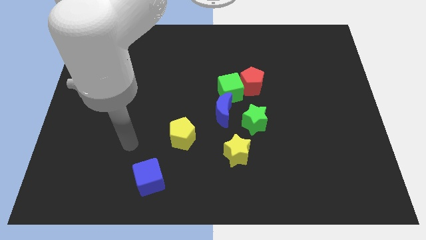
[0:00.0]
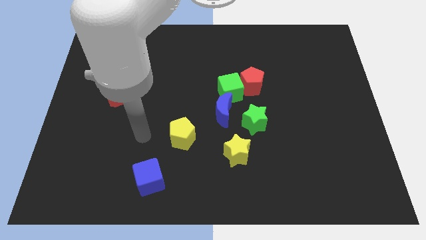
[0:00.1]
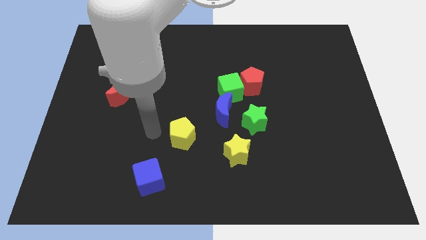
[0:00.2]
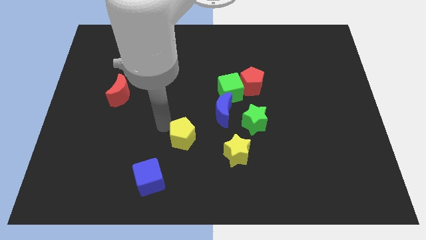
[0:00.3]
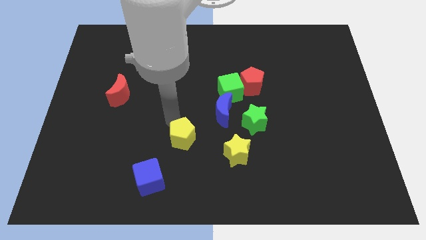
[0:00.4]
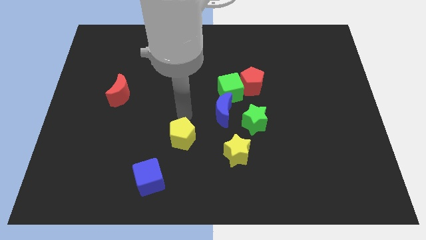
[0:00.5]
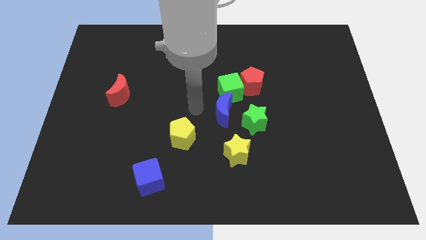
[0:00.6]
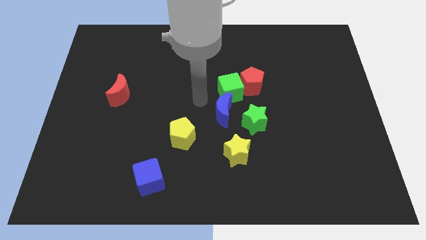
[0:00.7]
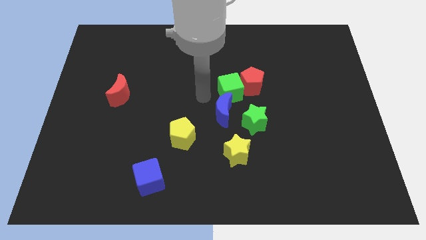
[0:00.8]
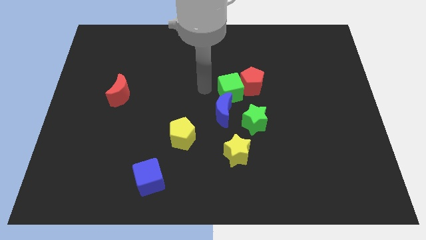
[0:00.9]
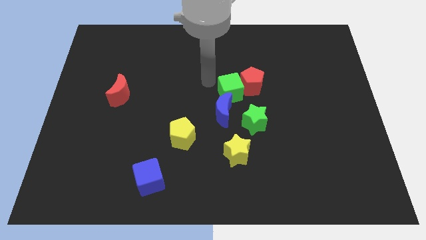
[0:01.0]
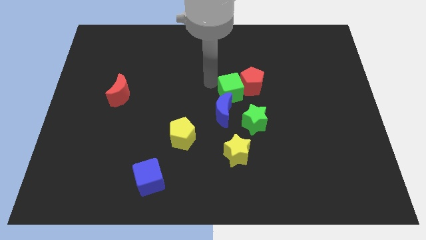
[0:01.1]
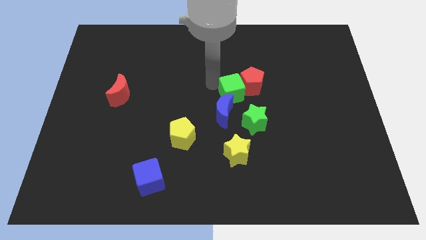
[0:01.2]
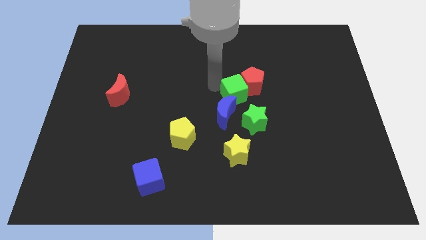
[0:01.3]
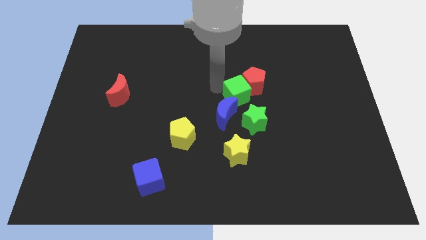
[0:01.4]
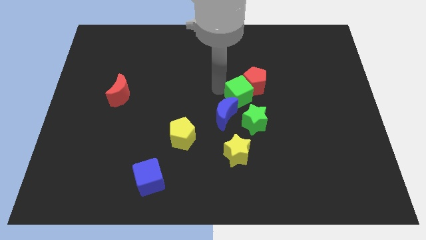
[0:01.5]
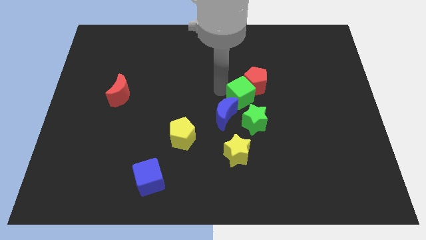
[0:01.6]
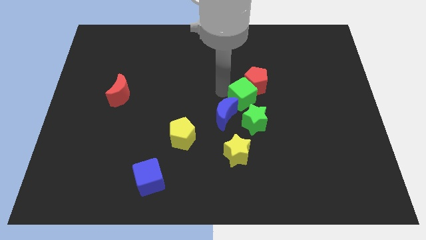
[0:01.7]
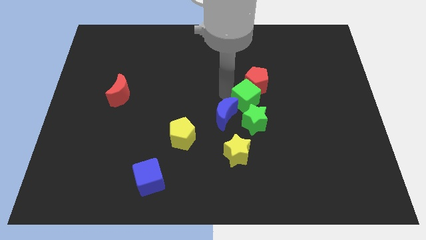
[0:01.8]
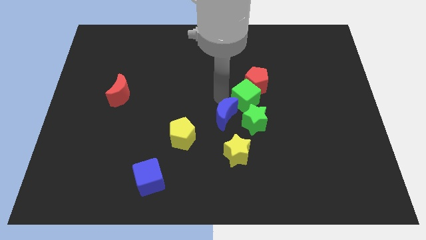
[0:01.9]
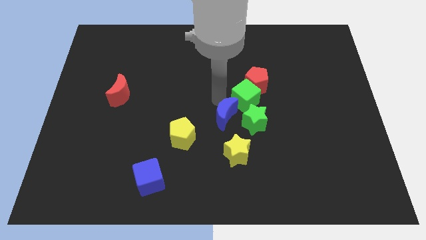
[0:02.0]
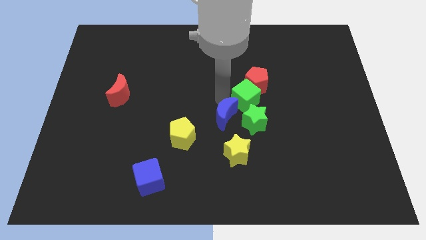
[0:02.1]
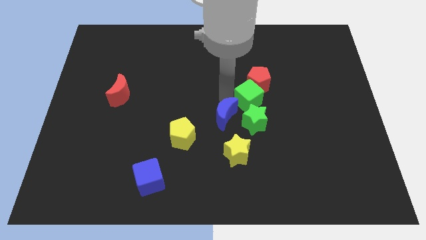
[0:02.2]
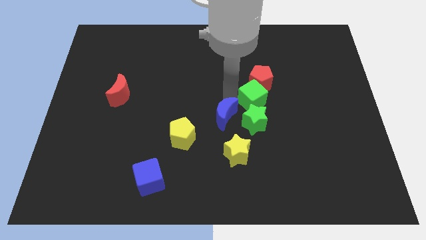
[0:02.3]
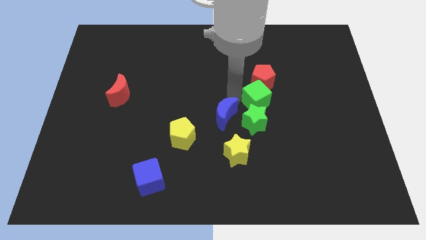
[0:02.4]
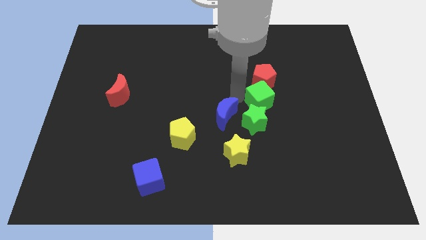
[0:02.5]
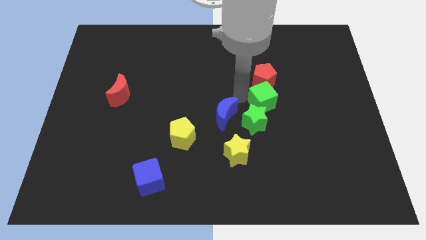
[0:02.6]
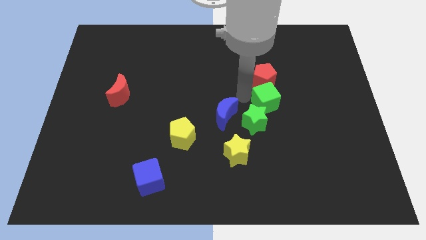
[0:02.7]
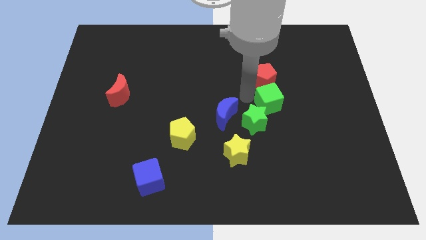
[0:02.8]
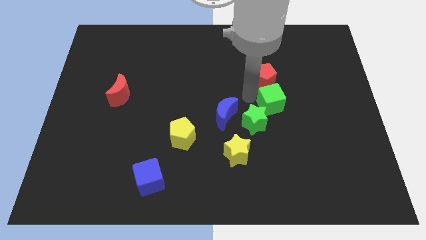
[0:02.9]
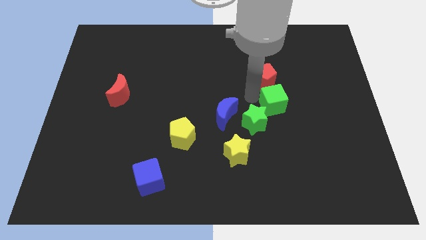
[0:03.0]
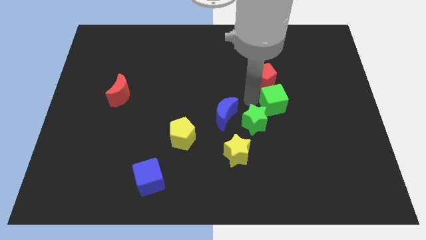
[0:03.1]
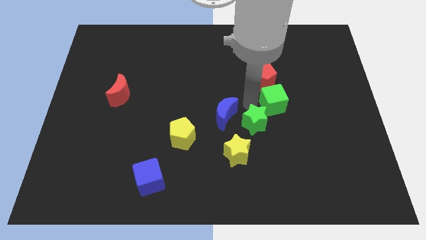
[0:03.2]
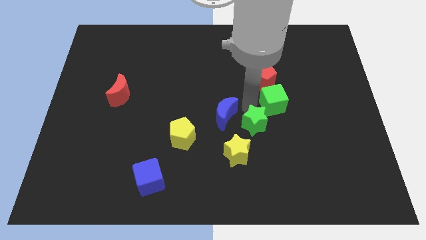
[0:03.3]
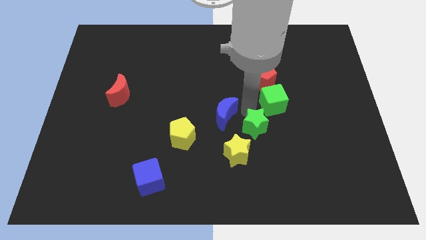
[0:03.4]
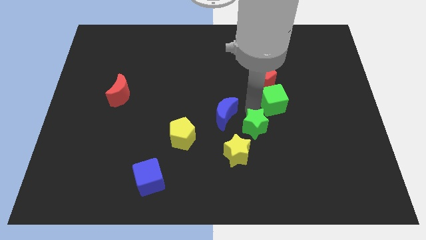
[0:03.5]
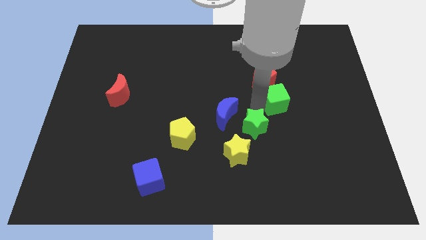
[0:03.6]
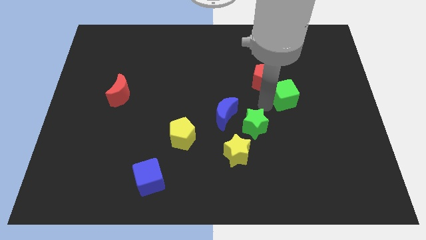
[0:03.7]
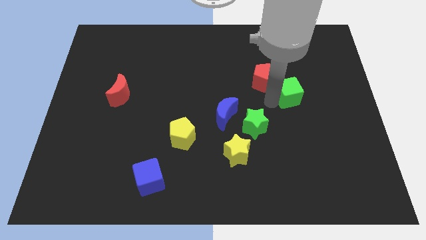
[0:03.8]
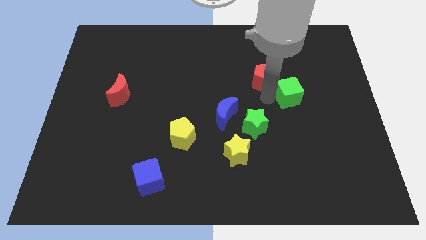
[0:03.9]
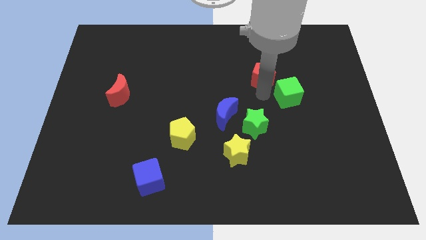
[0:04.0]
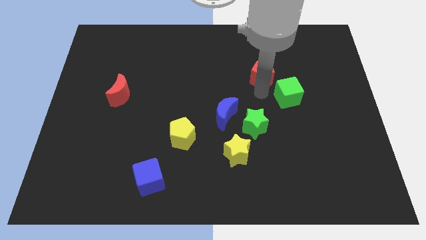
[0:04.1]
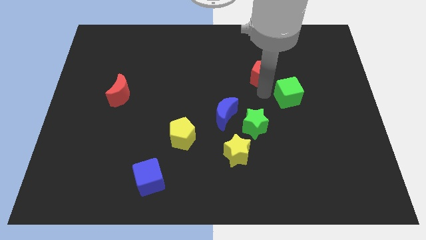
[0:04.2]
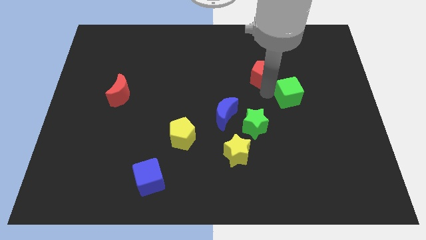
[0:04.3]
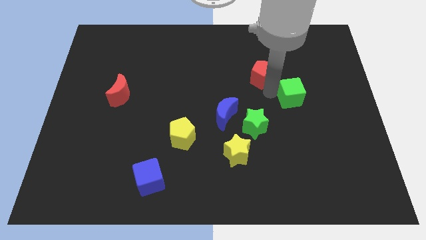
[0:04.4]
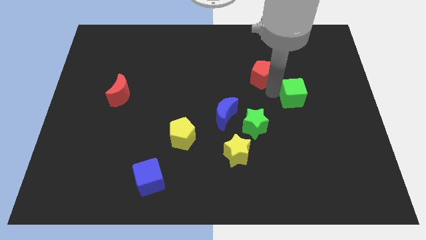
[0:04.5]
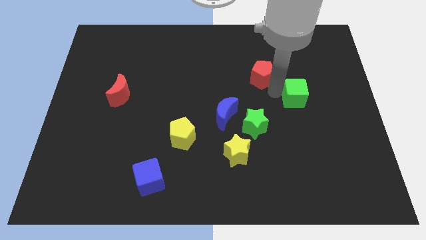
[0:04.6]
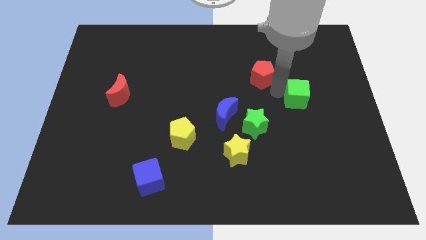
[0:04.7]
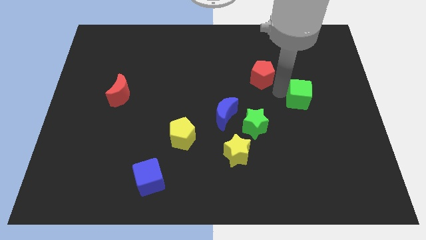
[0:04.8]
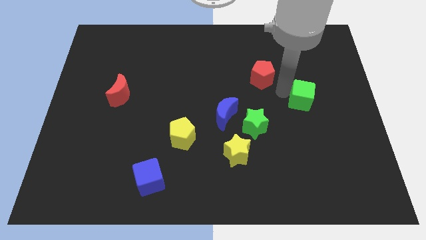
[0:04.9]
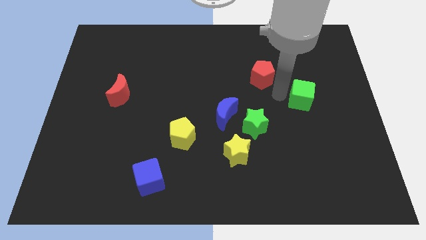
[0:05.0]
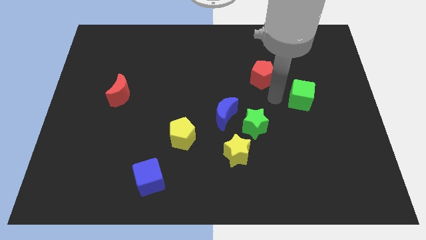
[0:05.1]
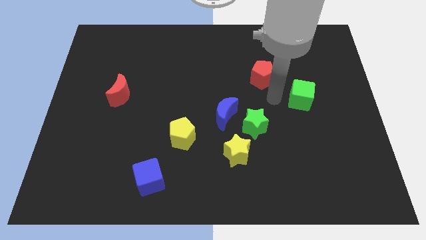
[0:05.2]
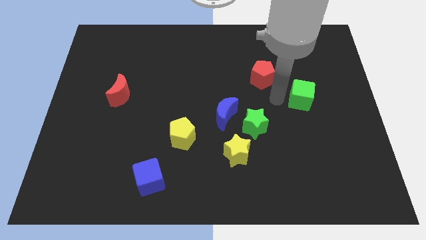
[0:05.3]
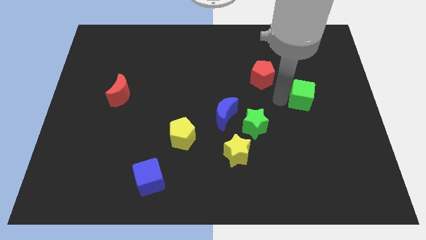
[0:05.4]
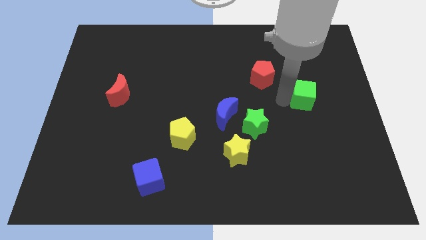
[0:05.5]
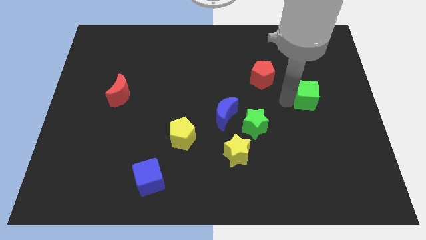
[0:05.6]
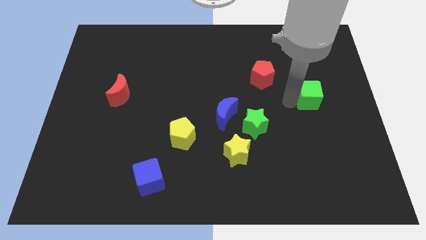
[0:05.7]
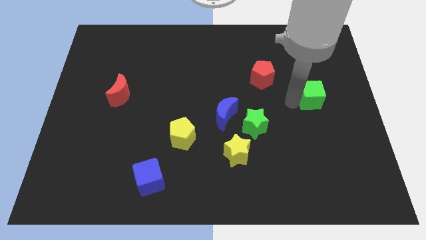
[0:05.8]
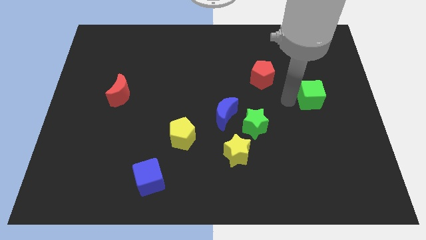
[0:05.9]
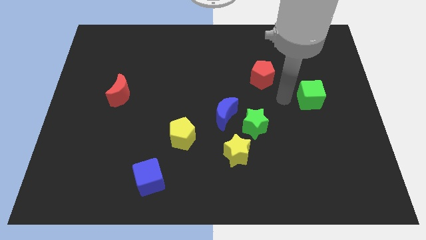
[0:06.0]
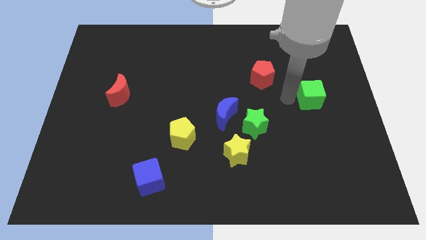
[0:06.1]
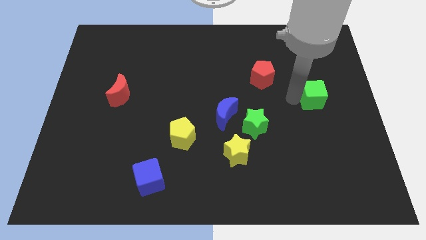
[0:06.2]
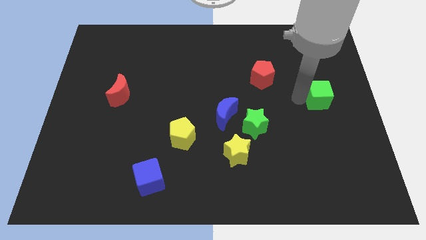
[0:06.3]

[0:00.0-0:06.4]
slide the green cube to the right side of the board

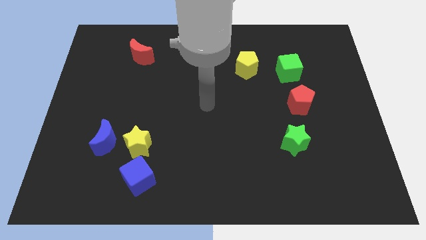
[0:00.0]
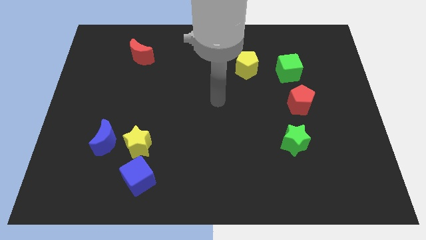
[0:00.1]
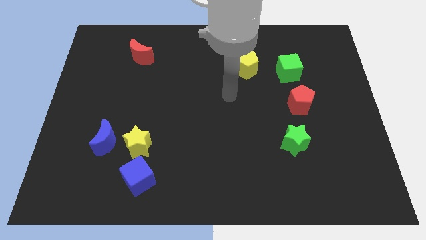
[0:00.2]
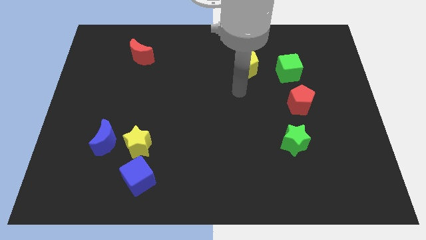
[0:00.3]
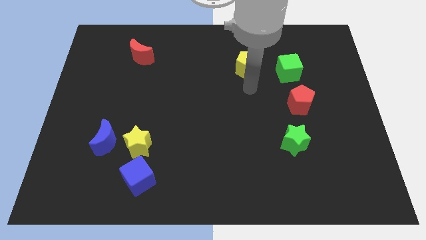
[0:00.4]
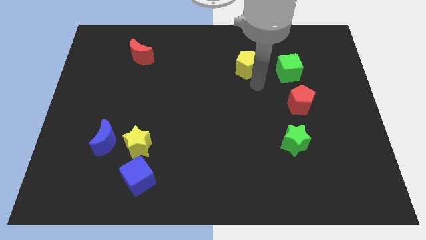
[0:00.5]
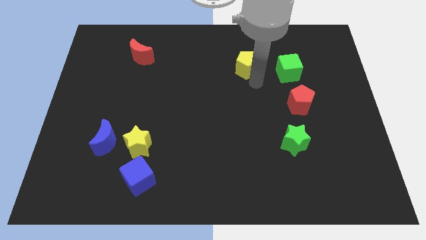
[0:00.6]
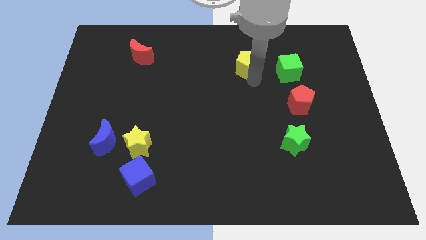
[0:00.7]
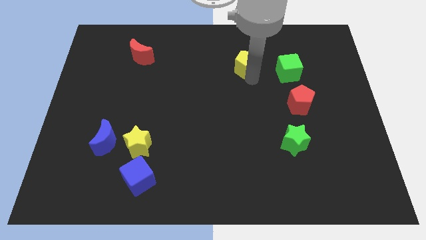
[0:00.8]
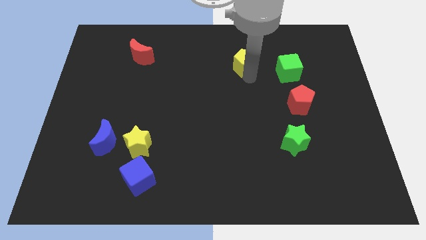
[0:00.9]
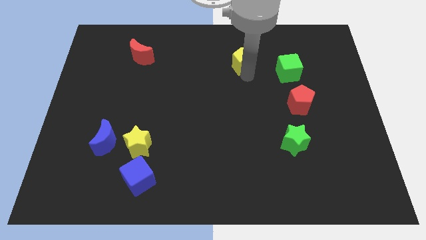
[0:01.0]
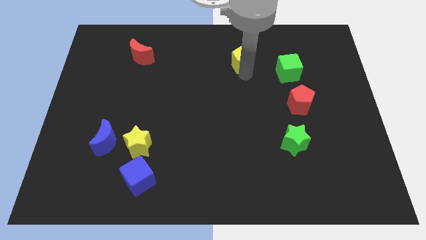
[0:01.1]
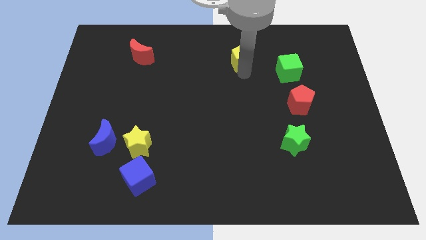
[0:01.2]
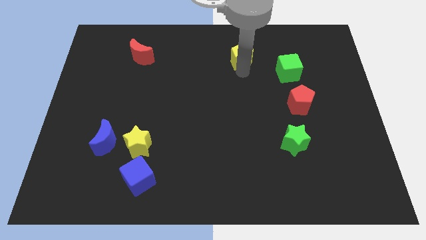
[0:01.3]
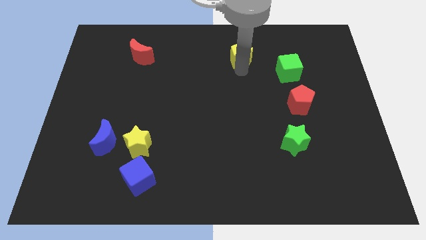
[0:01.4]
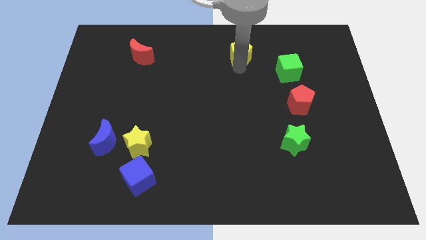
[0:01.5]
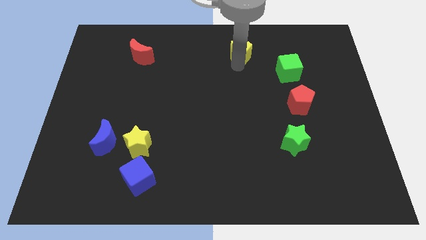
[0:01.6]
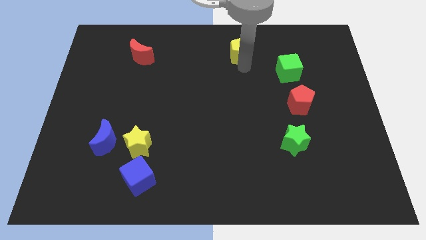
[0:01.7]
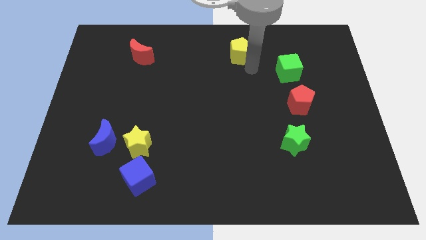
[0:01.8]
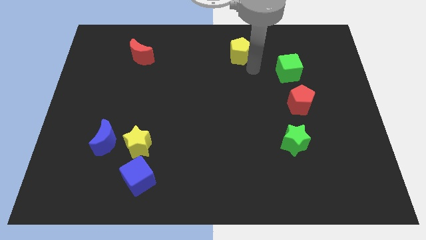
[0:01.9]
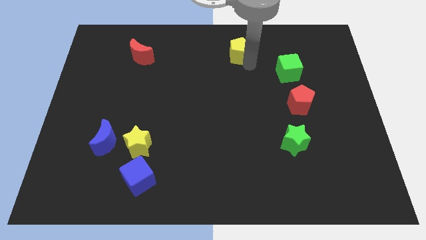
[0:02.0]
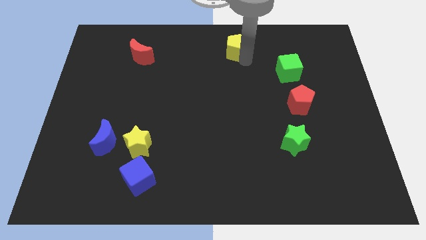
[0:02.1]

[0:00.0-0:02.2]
put the yellow pentagon to the top side
